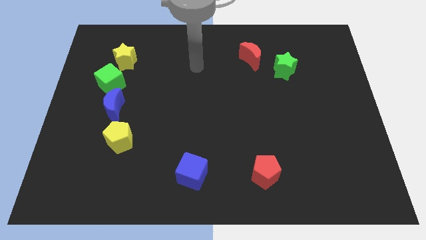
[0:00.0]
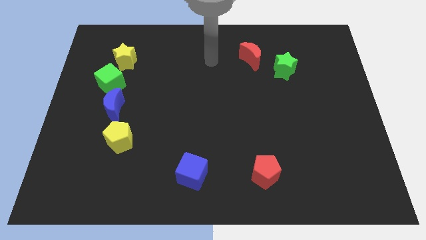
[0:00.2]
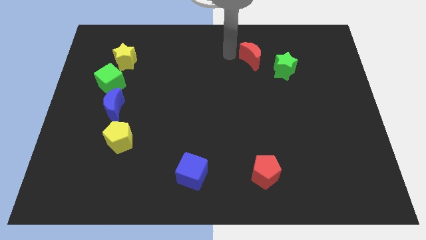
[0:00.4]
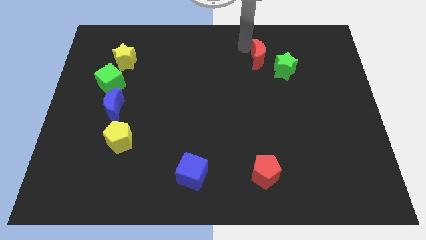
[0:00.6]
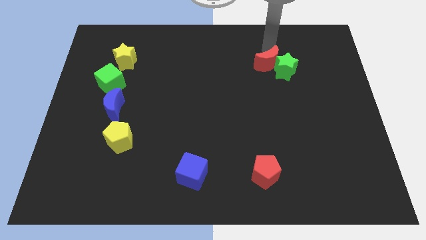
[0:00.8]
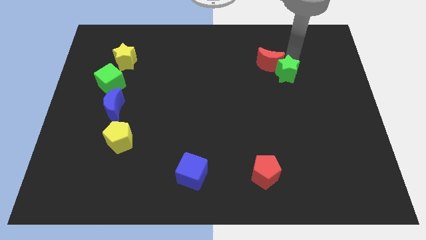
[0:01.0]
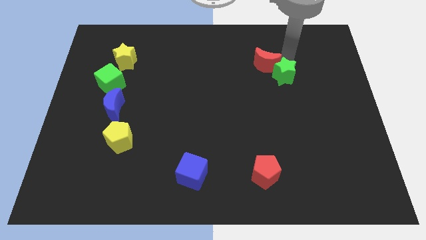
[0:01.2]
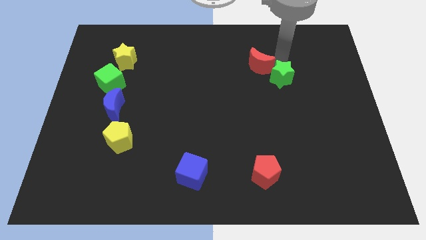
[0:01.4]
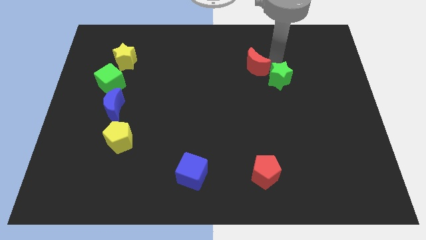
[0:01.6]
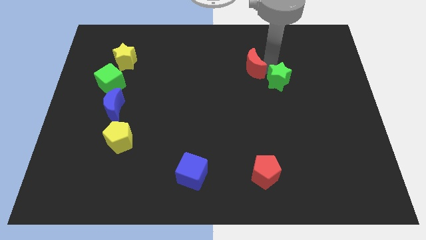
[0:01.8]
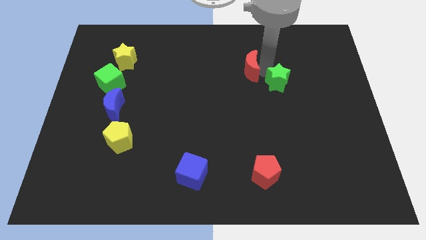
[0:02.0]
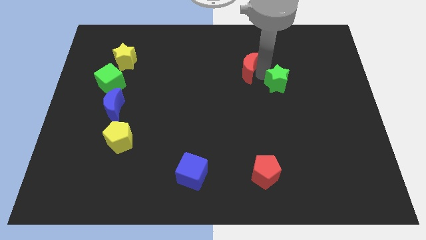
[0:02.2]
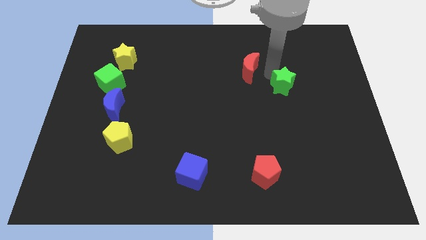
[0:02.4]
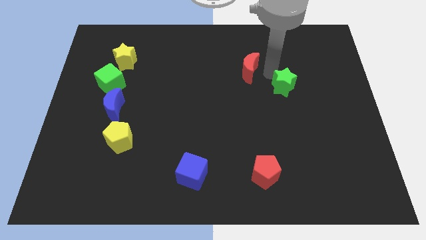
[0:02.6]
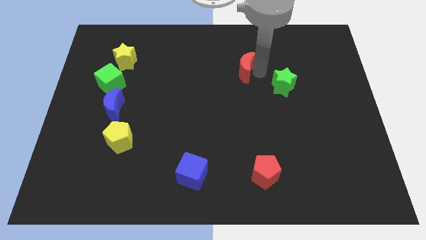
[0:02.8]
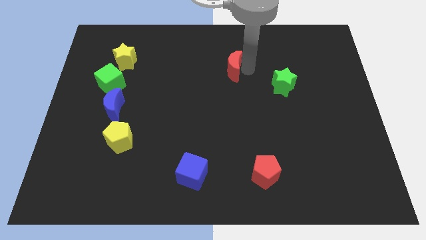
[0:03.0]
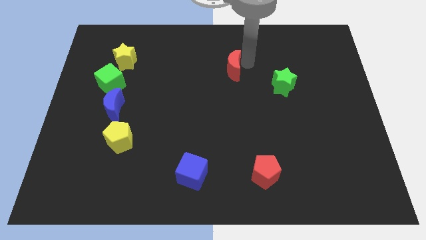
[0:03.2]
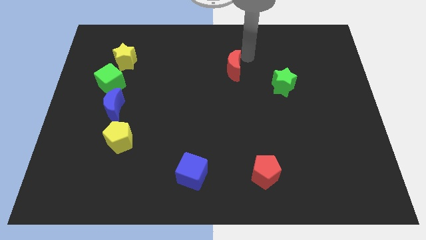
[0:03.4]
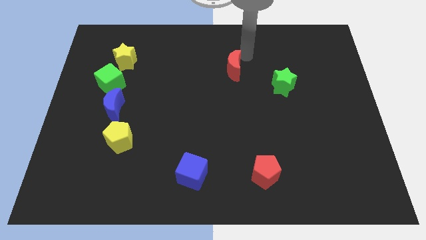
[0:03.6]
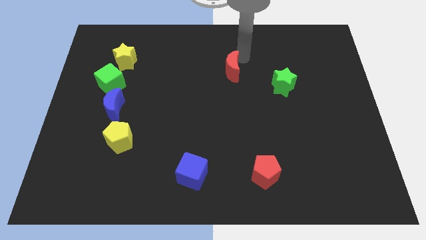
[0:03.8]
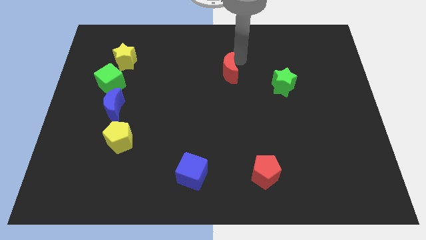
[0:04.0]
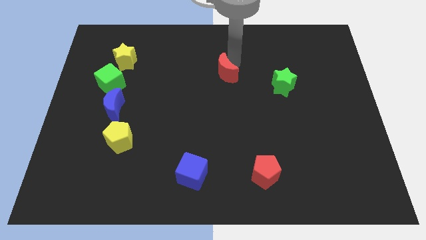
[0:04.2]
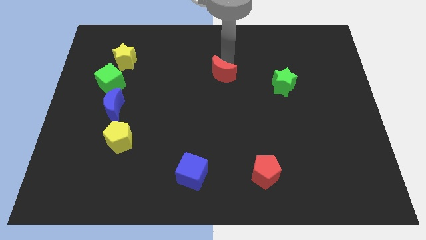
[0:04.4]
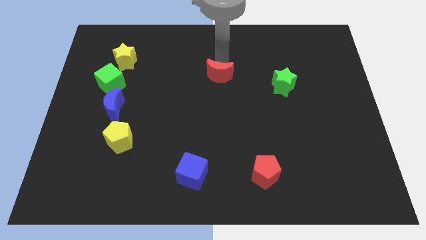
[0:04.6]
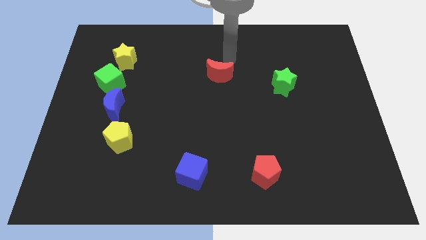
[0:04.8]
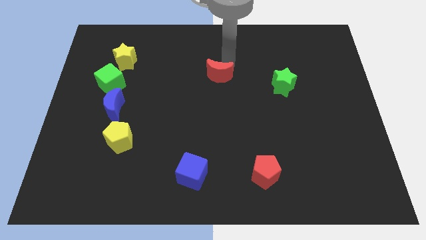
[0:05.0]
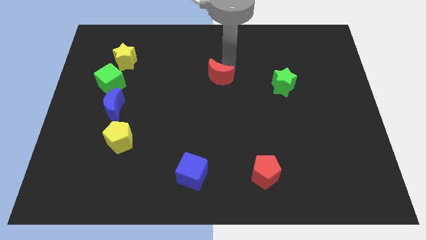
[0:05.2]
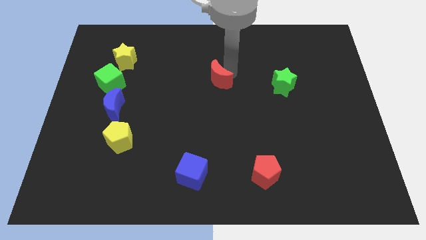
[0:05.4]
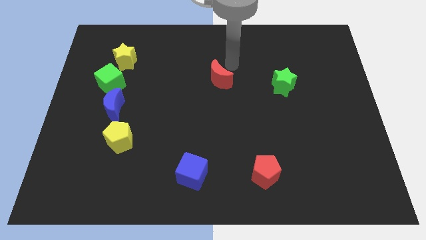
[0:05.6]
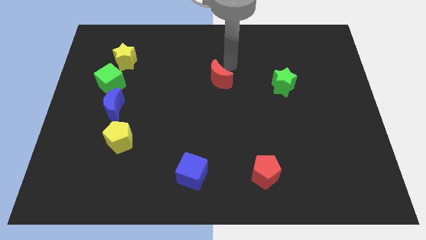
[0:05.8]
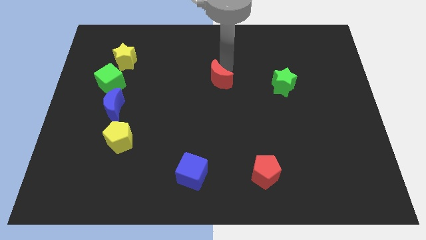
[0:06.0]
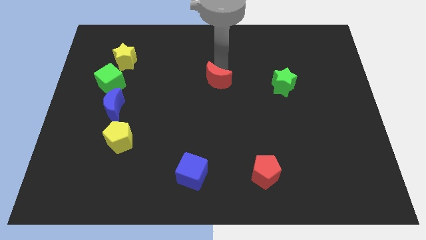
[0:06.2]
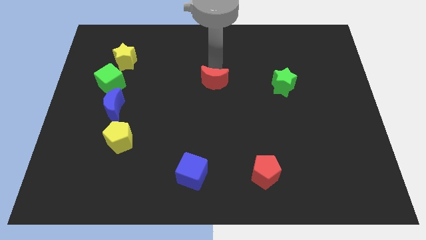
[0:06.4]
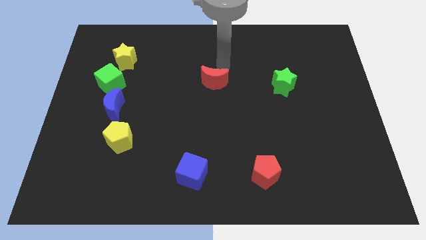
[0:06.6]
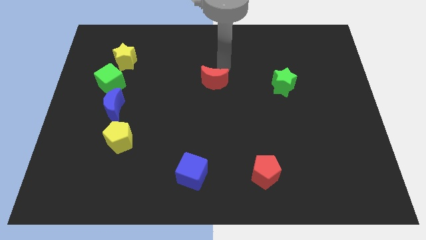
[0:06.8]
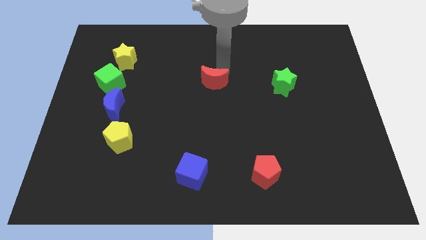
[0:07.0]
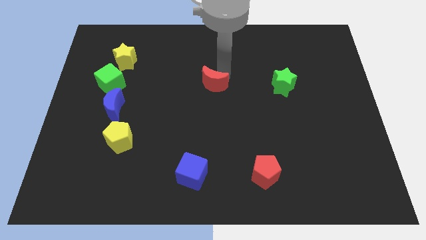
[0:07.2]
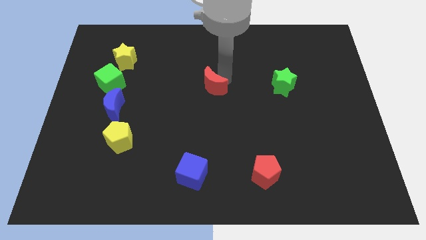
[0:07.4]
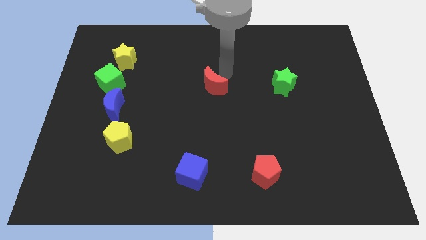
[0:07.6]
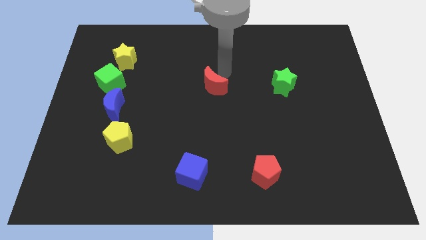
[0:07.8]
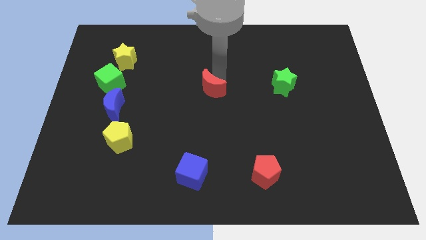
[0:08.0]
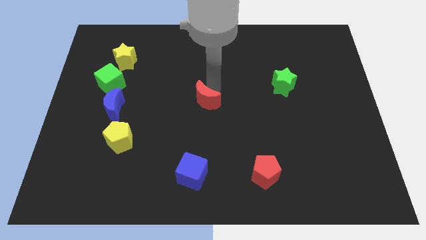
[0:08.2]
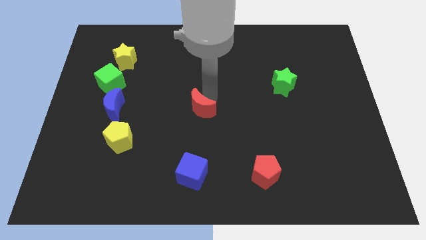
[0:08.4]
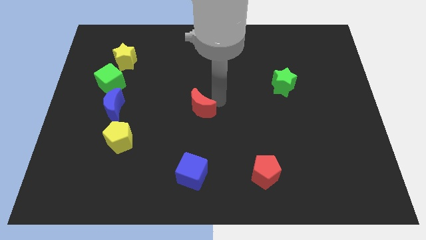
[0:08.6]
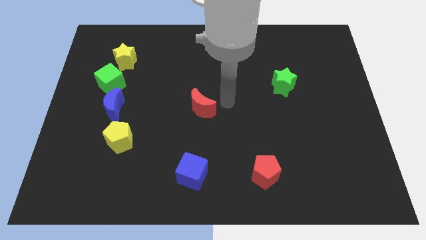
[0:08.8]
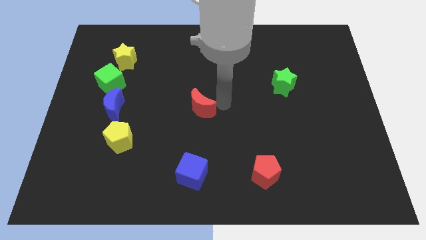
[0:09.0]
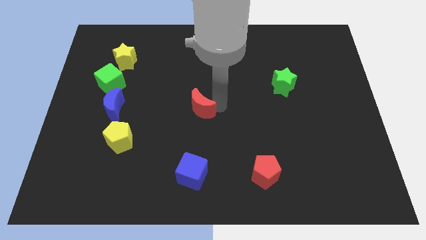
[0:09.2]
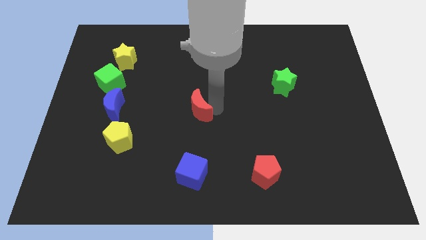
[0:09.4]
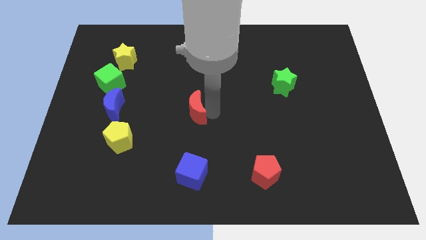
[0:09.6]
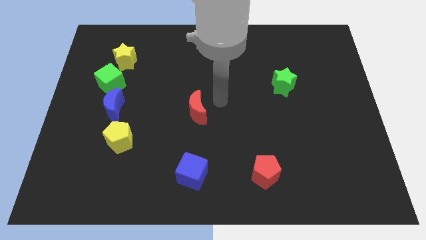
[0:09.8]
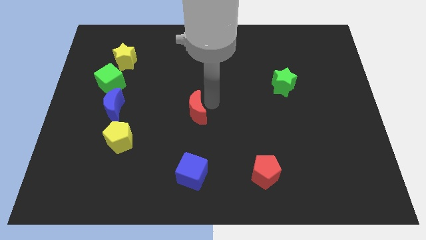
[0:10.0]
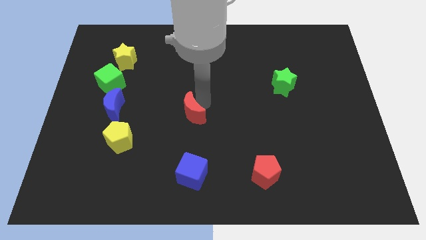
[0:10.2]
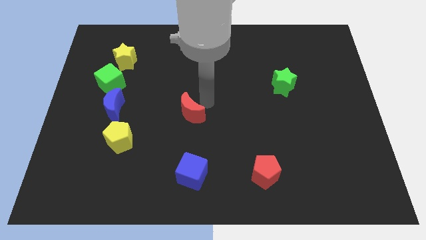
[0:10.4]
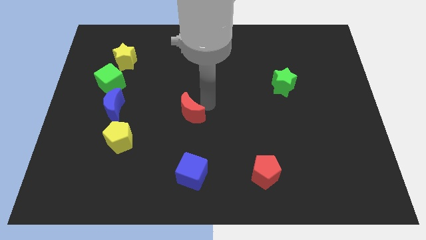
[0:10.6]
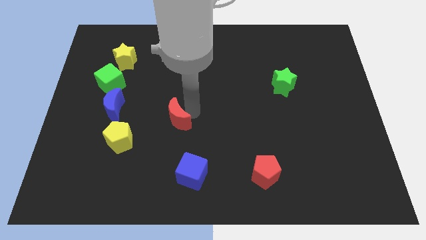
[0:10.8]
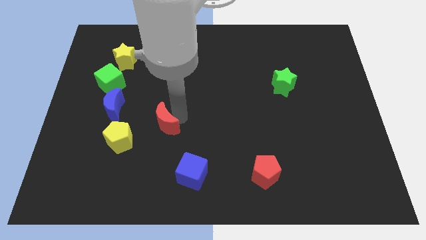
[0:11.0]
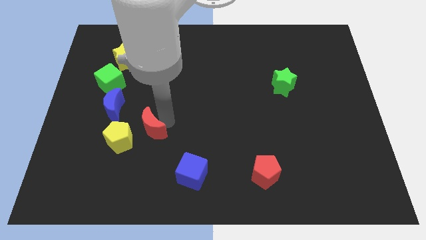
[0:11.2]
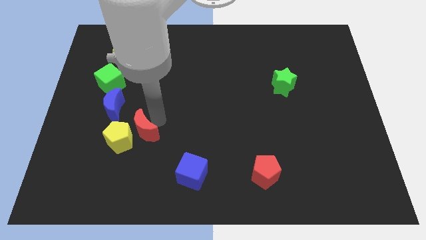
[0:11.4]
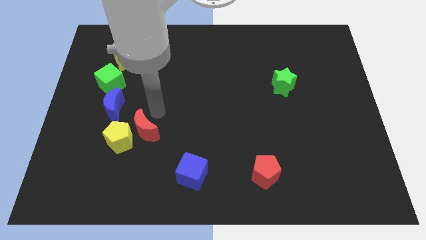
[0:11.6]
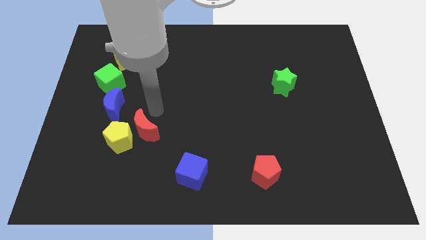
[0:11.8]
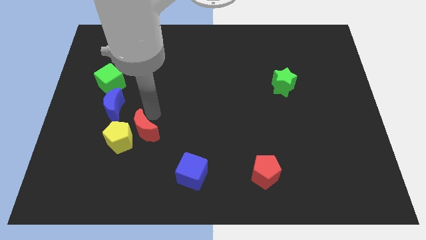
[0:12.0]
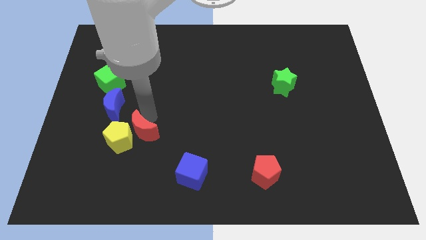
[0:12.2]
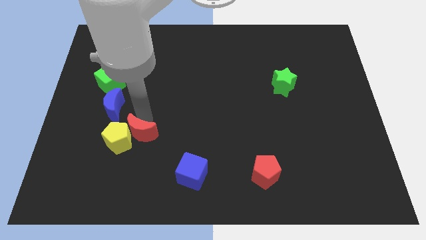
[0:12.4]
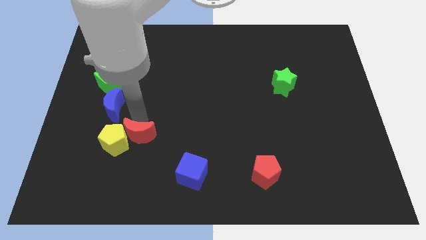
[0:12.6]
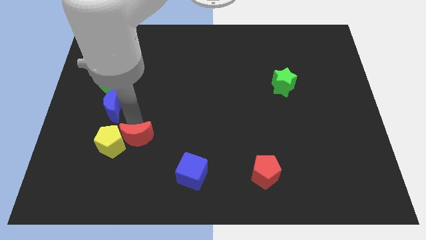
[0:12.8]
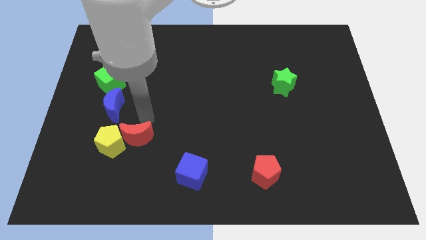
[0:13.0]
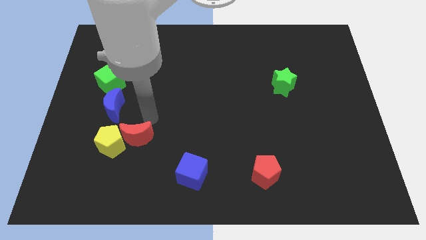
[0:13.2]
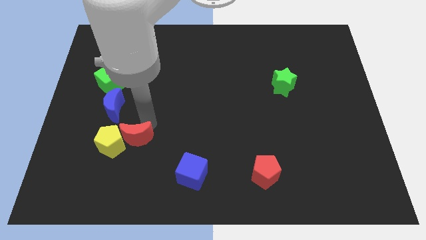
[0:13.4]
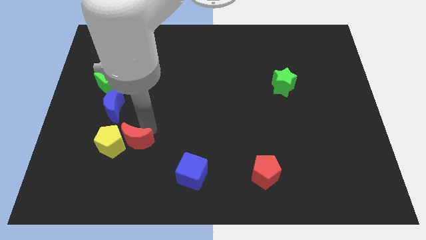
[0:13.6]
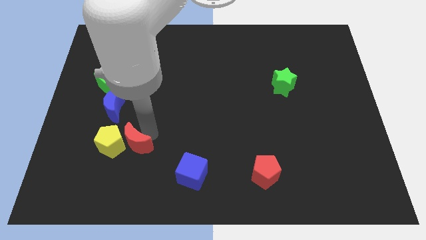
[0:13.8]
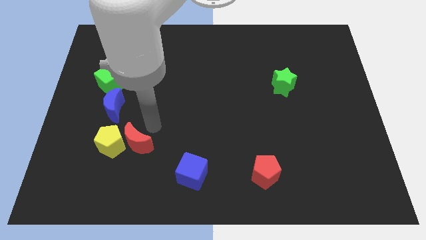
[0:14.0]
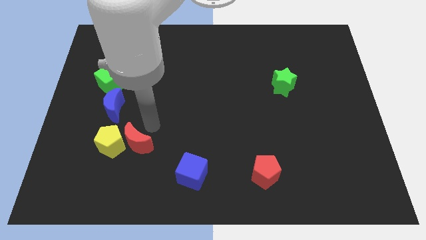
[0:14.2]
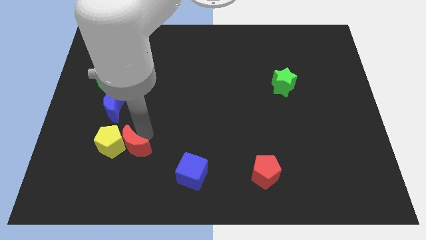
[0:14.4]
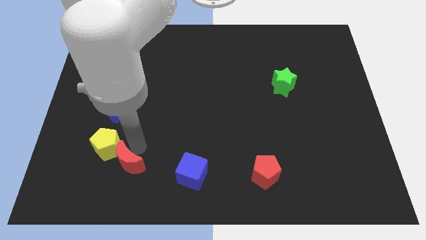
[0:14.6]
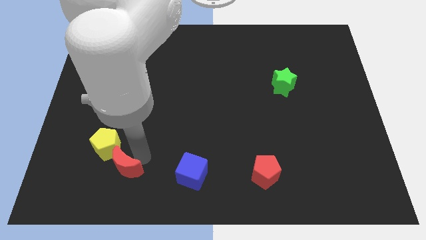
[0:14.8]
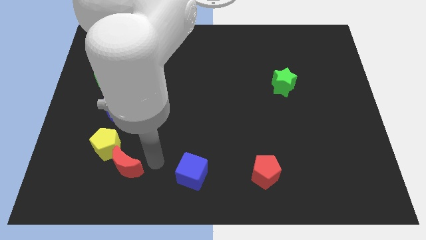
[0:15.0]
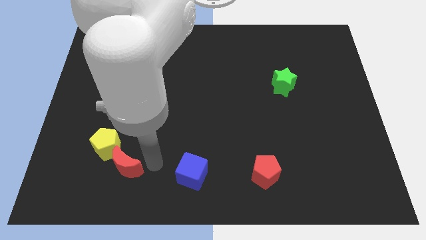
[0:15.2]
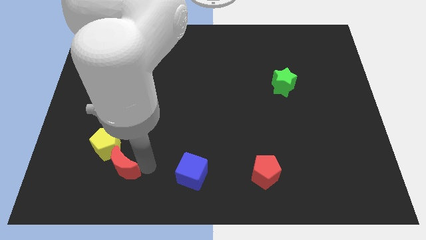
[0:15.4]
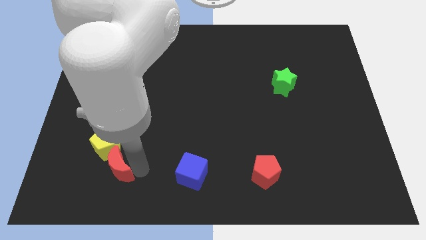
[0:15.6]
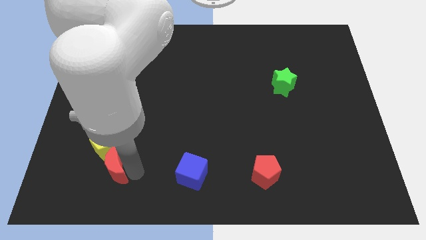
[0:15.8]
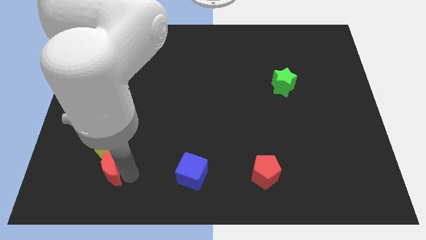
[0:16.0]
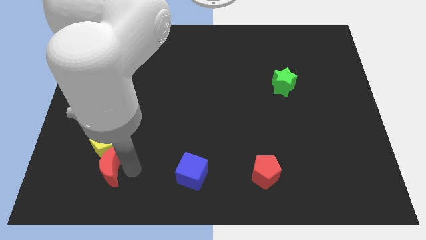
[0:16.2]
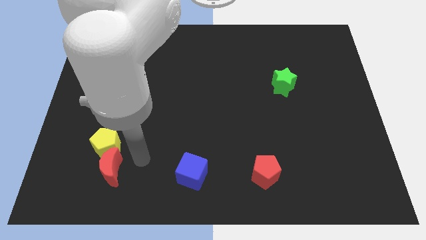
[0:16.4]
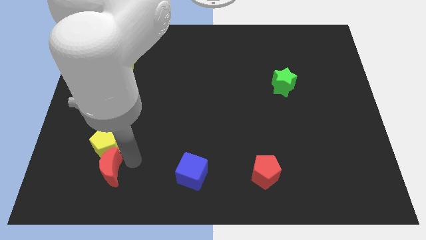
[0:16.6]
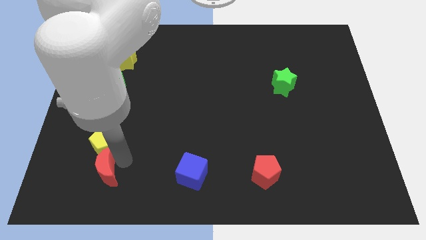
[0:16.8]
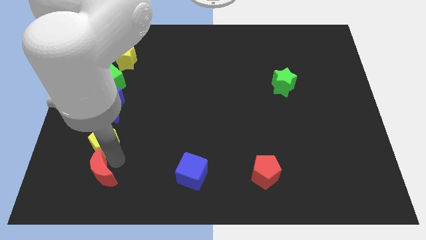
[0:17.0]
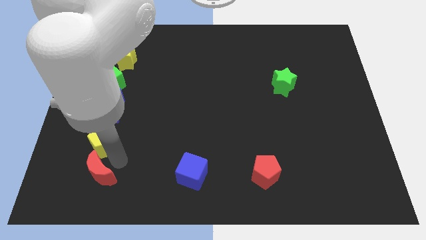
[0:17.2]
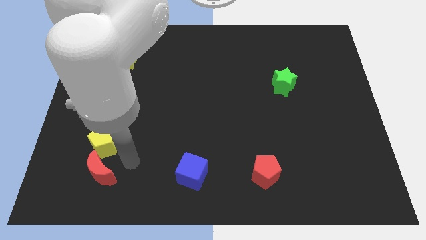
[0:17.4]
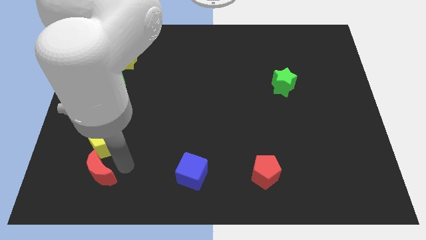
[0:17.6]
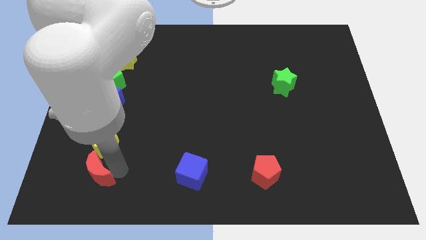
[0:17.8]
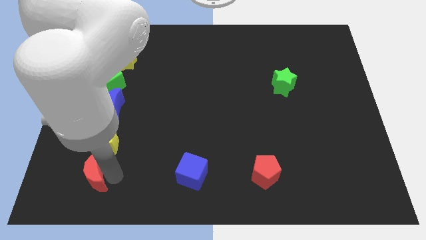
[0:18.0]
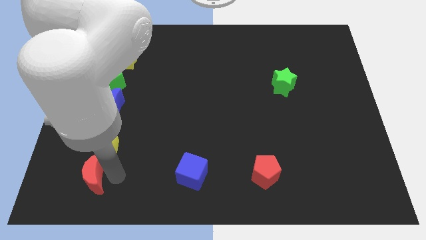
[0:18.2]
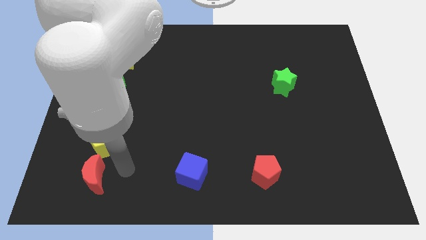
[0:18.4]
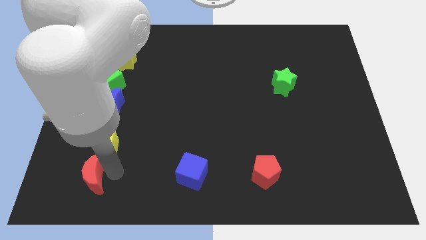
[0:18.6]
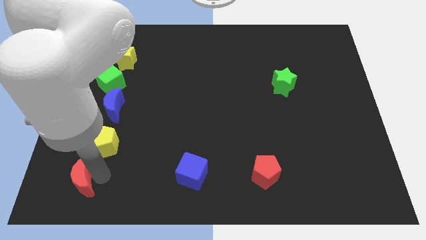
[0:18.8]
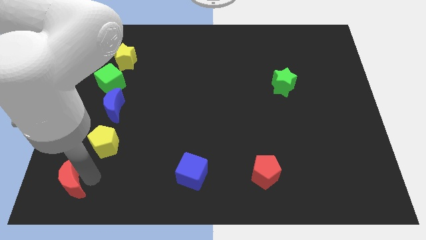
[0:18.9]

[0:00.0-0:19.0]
slide the red moon to the bottom left corner
